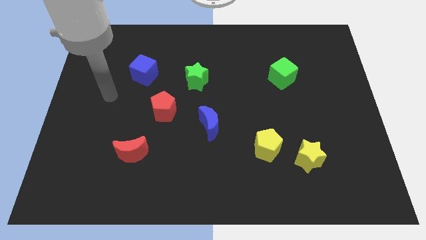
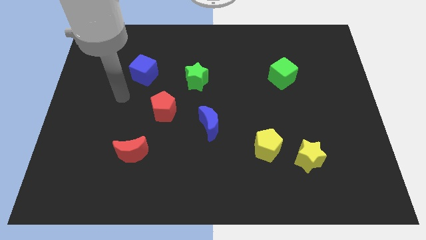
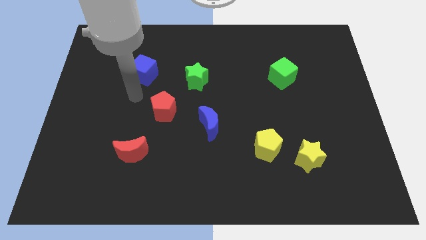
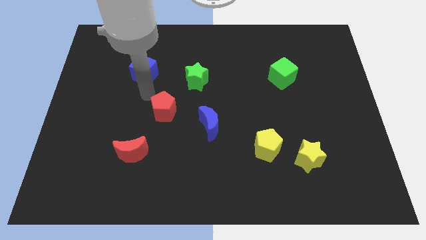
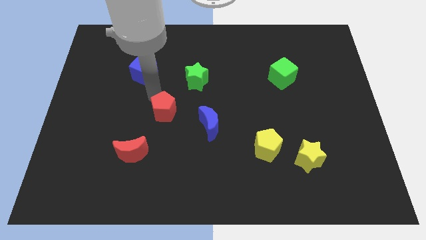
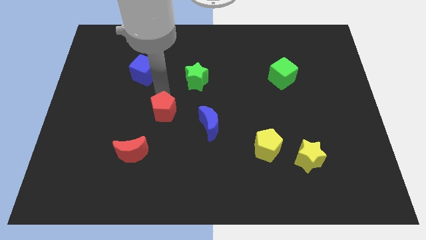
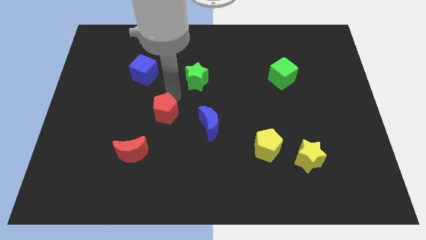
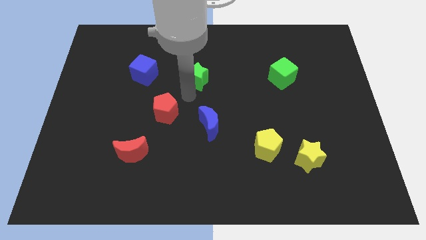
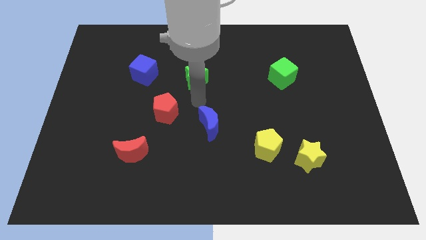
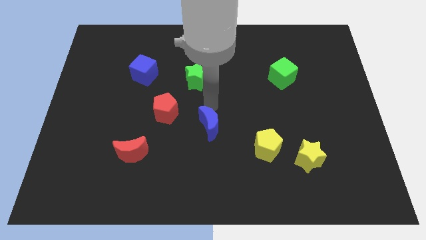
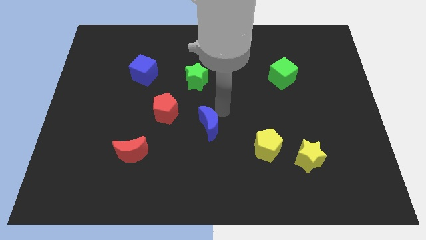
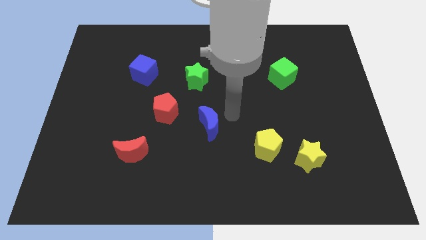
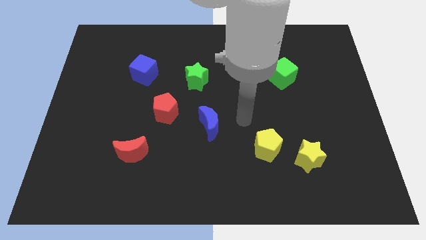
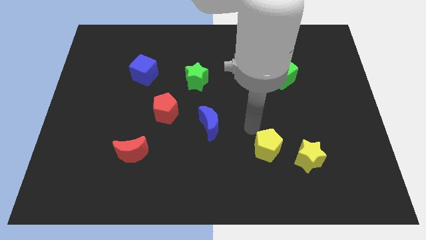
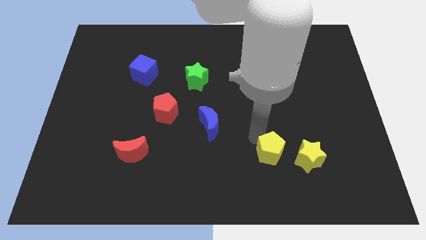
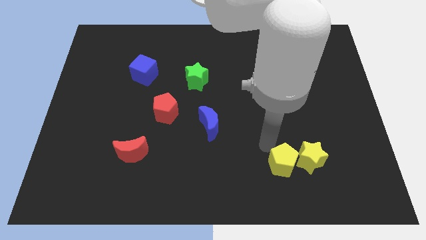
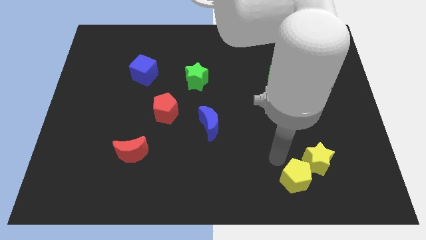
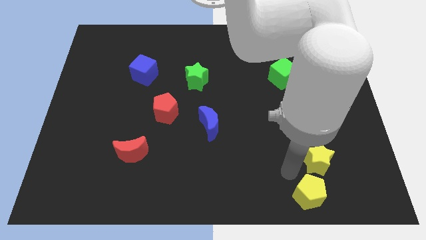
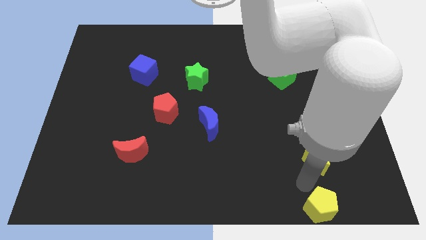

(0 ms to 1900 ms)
move the yellow star away from the yellow pentagon

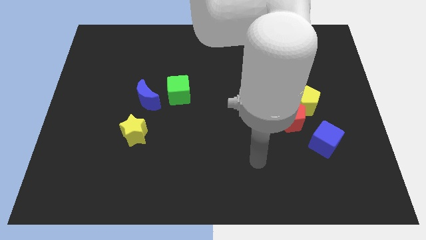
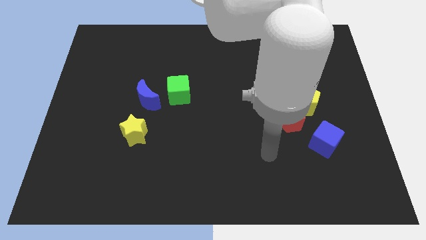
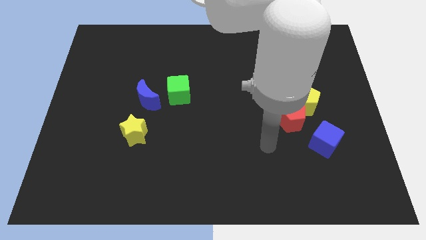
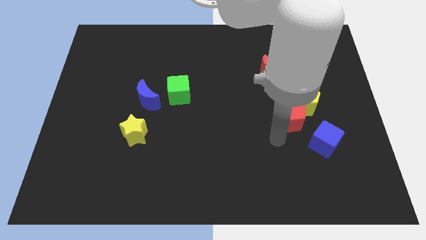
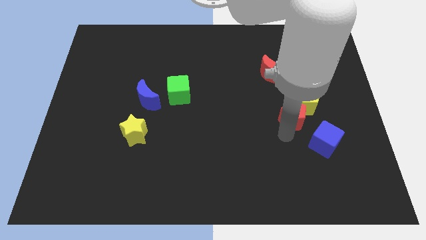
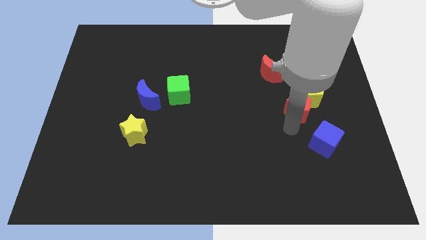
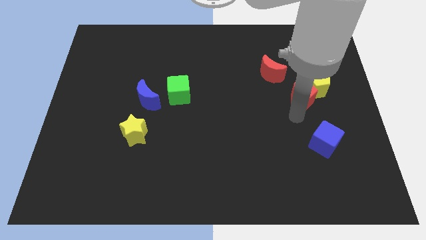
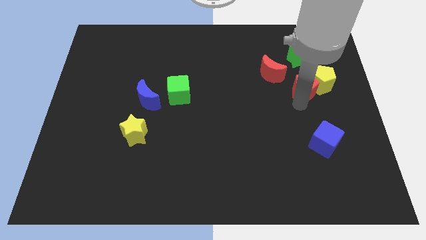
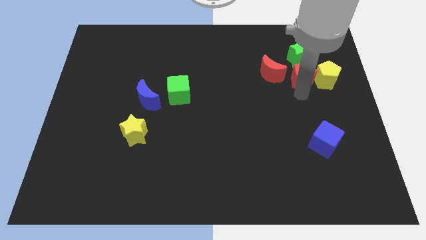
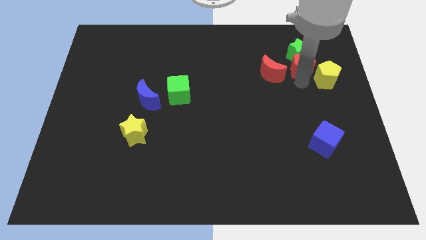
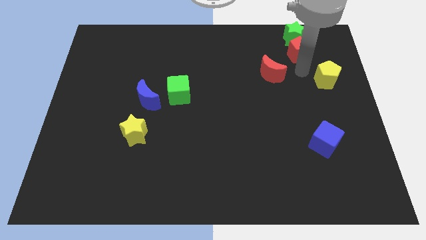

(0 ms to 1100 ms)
separate the yellow pentagon from the red pentagon

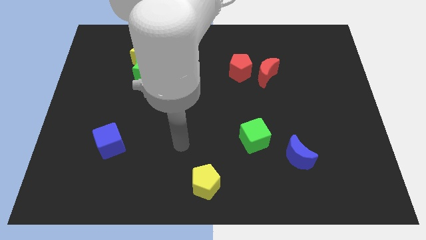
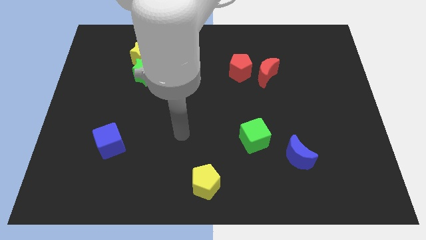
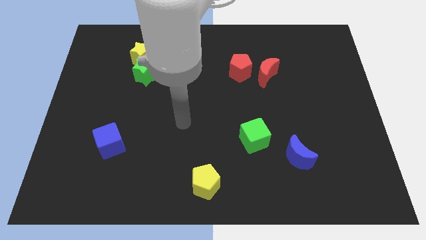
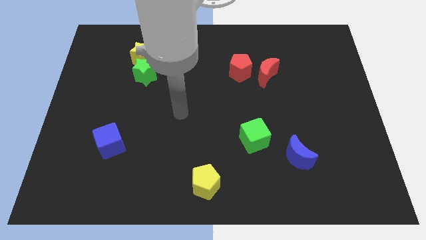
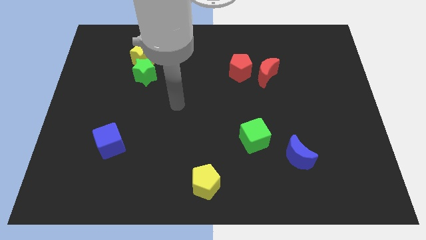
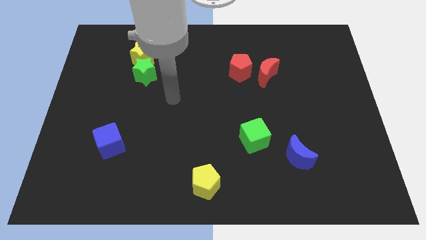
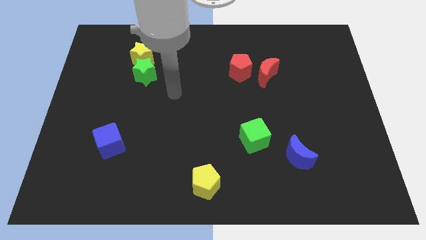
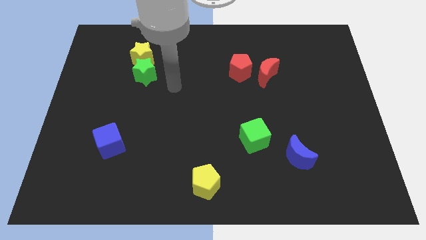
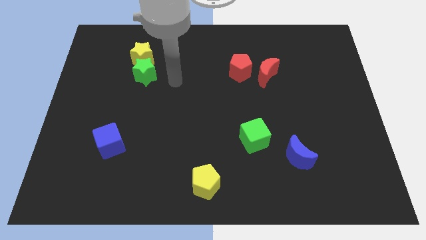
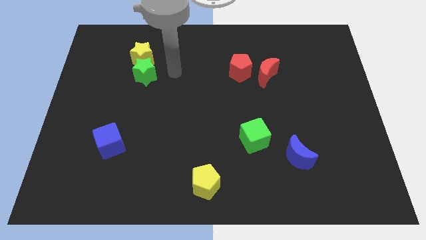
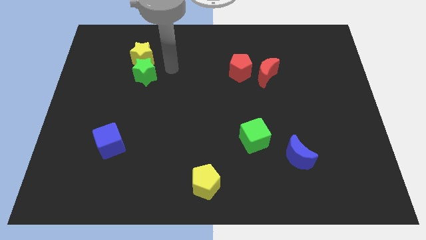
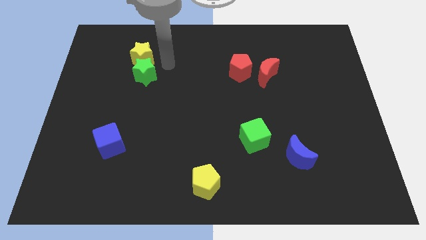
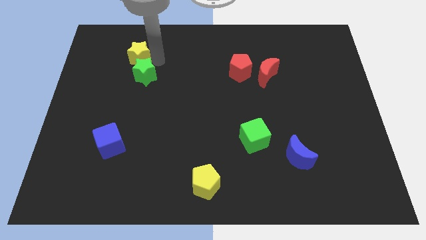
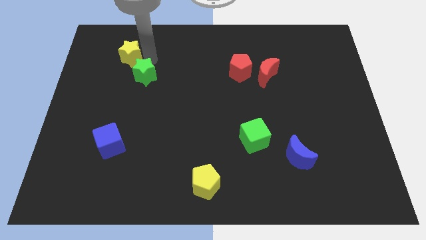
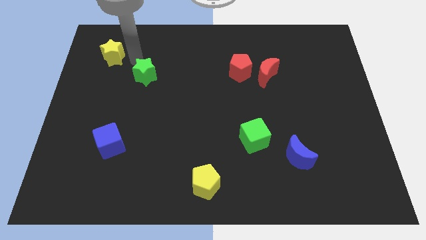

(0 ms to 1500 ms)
separate the green star from the yellow star

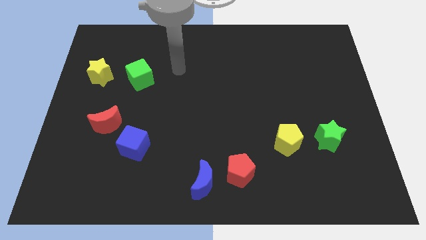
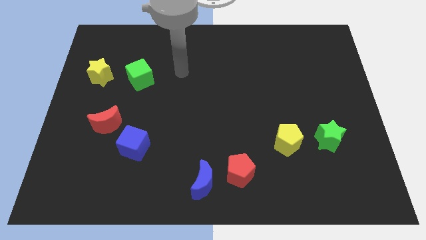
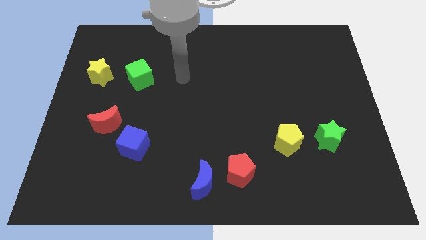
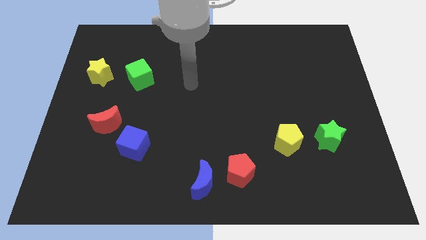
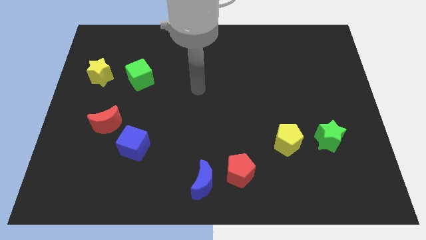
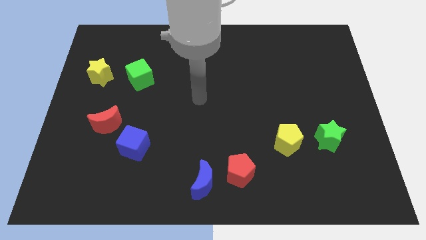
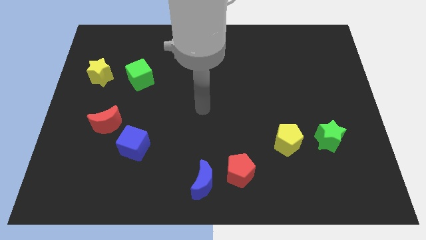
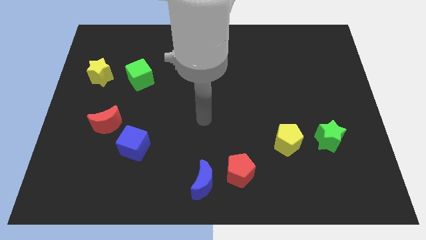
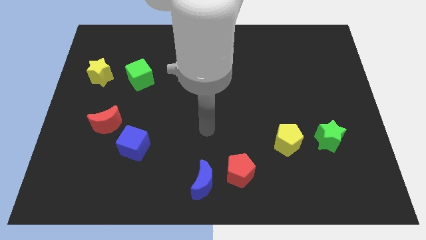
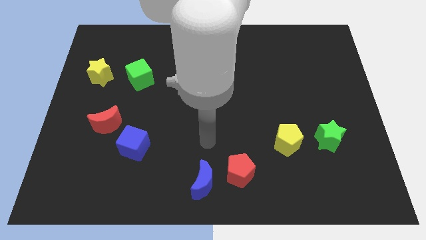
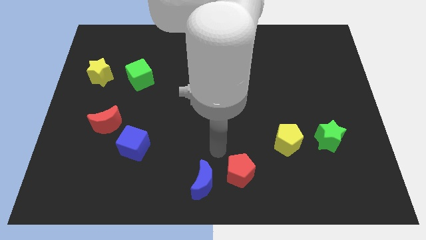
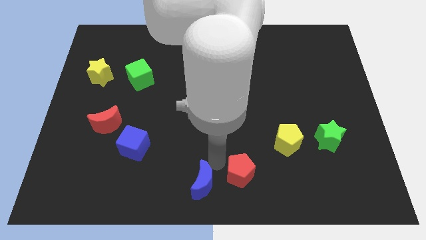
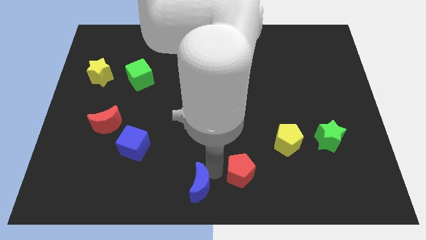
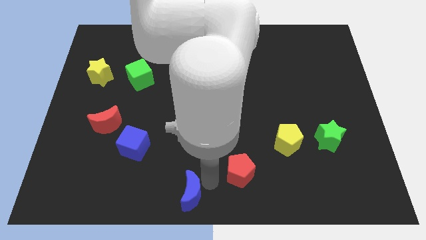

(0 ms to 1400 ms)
separate the red pentagon from the blue moon

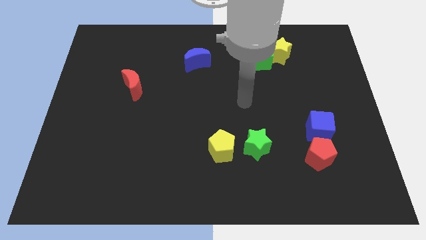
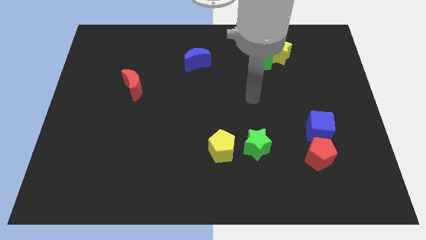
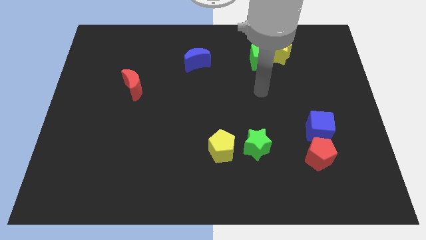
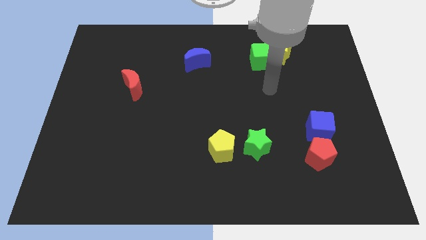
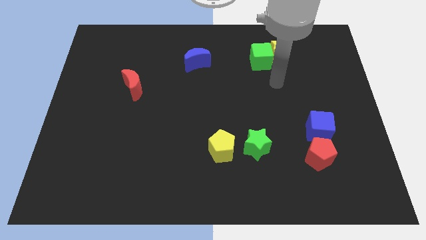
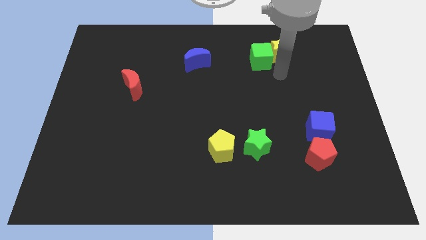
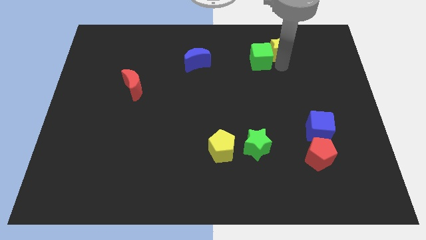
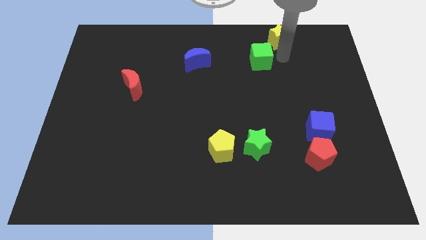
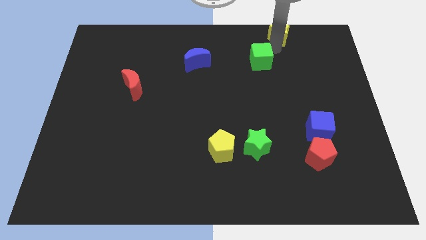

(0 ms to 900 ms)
pull the green cube apart from the yellow star

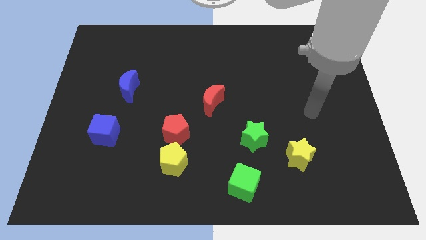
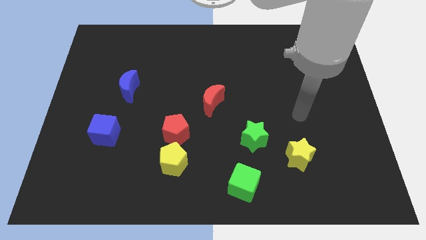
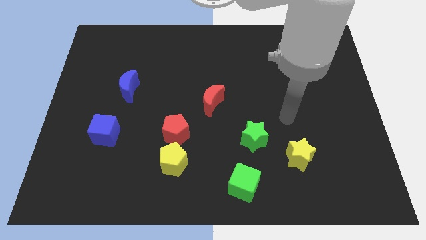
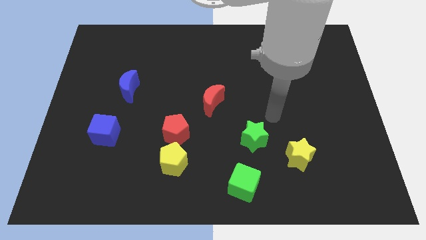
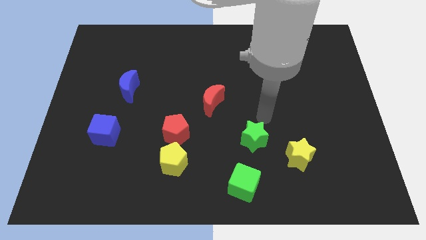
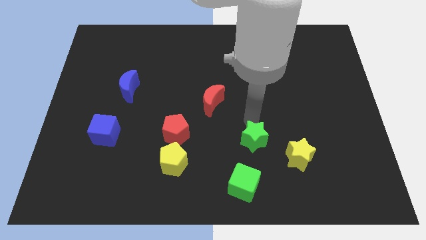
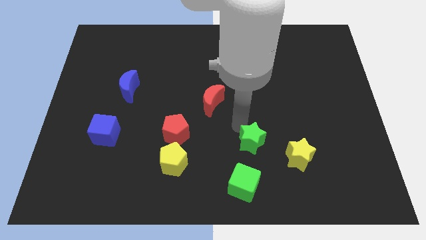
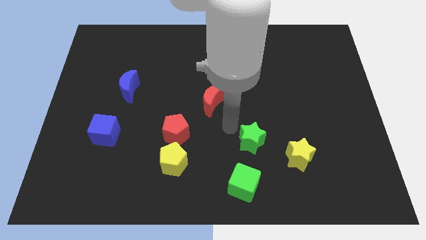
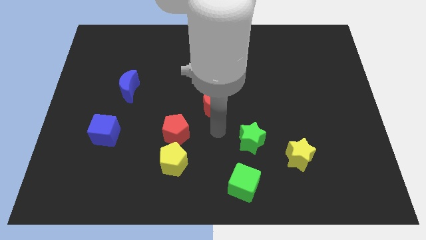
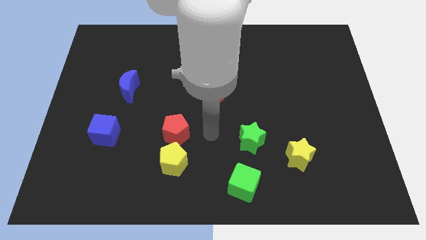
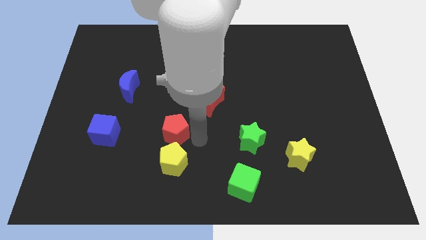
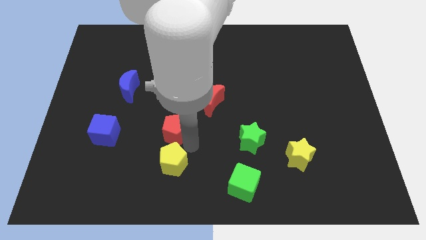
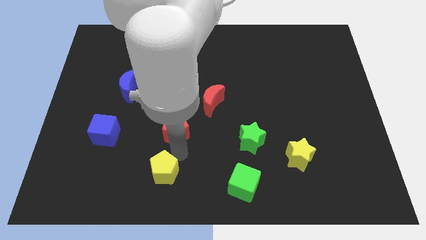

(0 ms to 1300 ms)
move the red pentagon away from the yellow pentagon

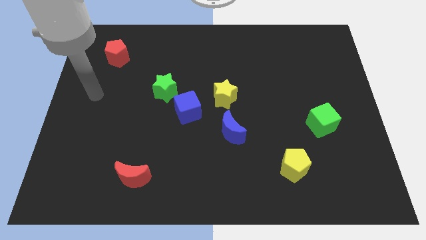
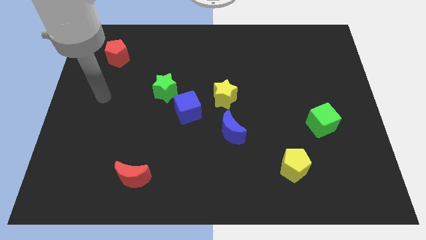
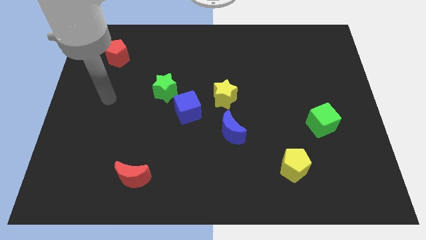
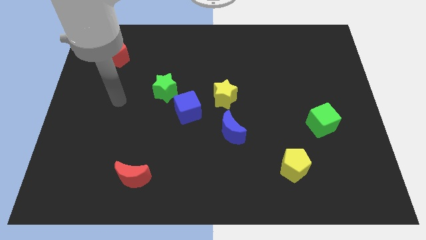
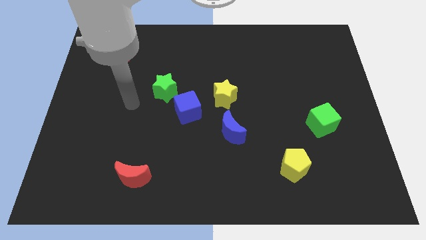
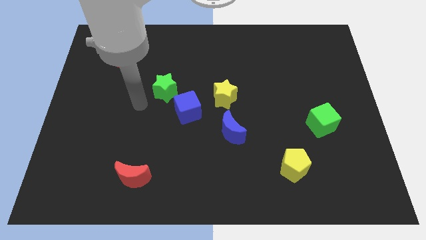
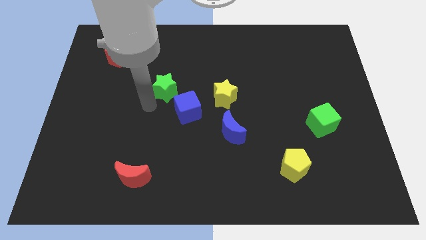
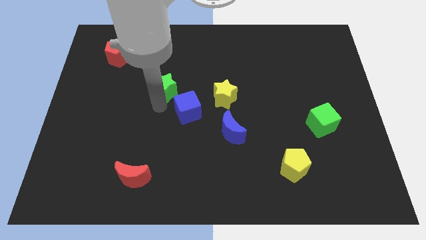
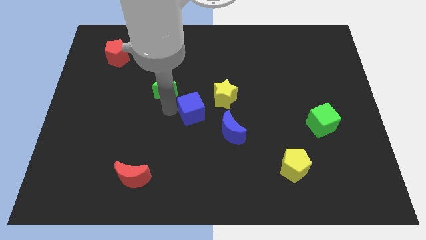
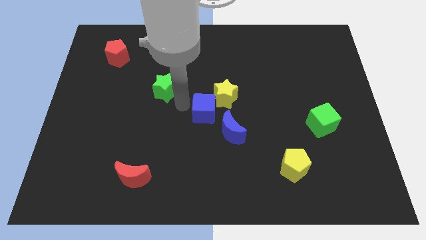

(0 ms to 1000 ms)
pull the green star apart from the blue cube

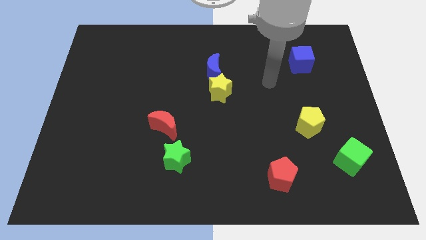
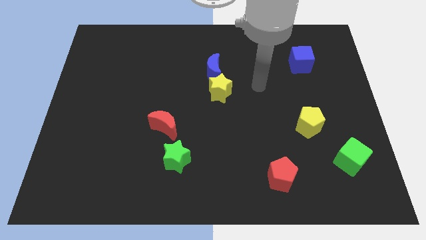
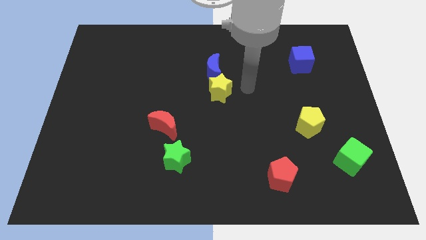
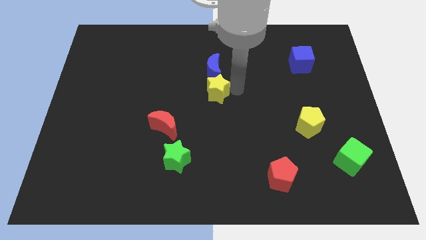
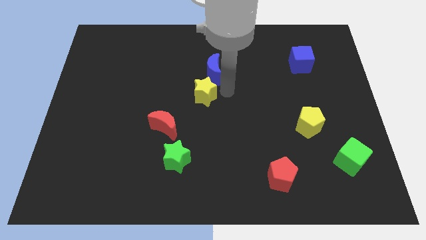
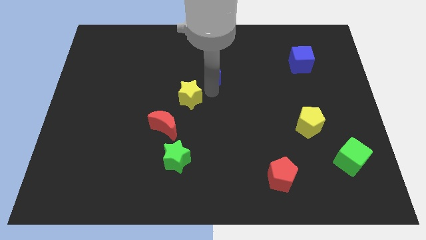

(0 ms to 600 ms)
move the blue moon away from the yellow star
